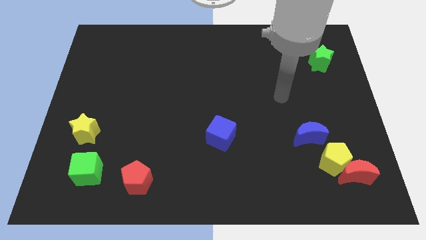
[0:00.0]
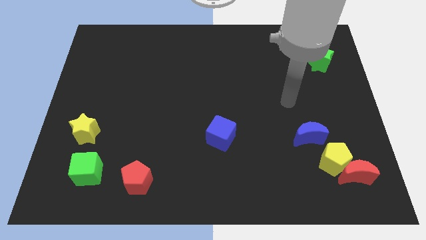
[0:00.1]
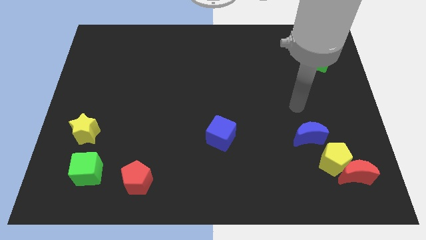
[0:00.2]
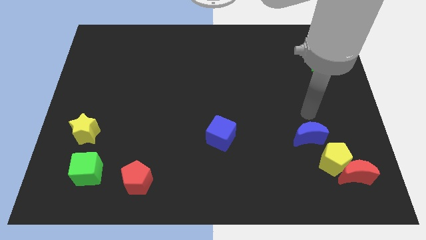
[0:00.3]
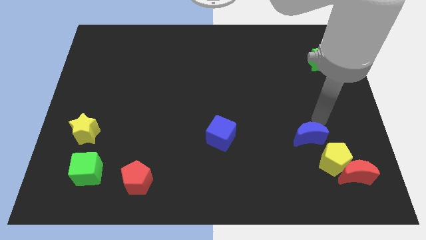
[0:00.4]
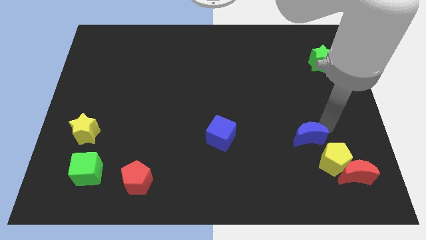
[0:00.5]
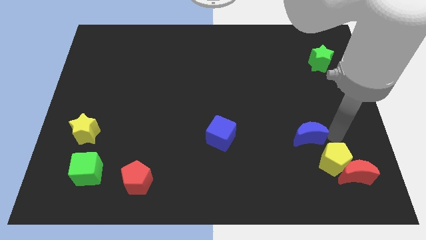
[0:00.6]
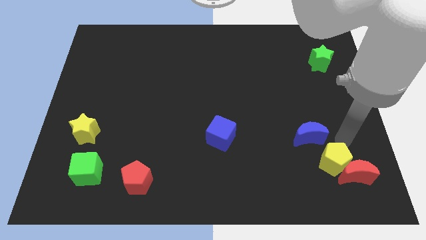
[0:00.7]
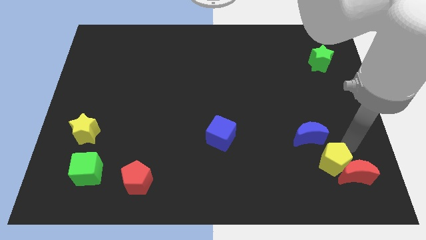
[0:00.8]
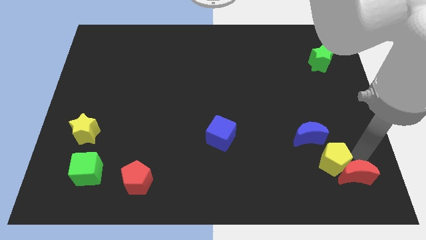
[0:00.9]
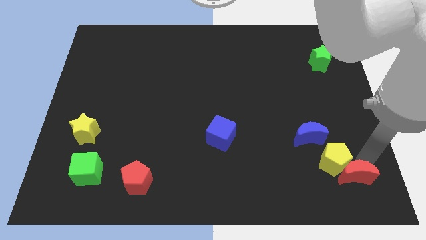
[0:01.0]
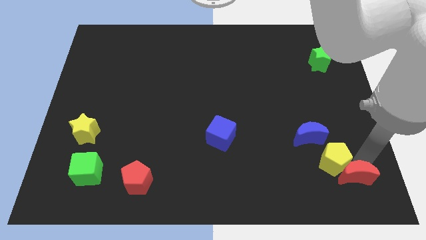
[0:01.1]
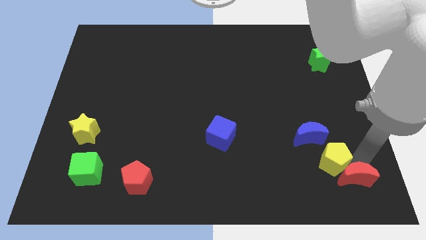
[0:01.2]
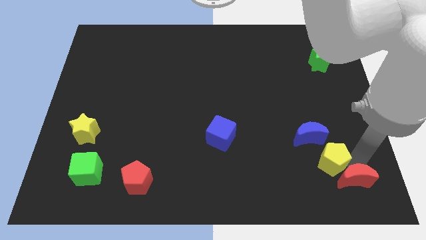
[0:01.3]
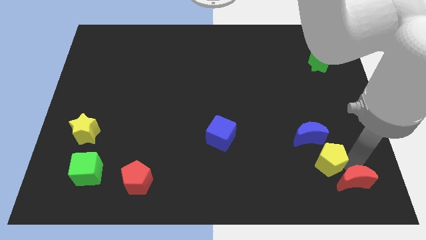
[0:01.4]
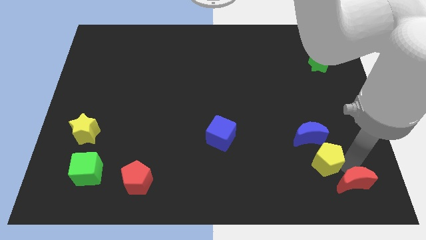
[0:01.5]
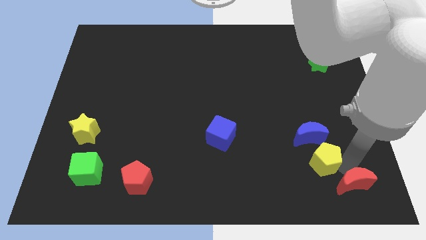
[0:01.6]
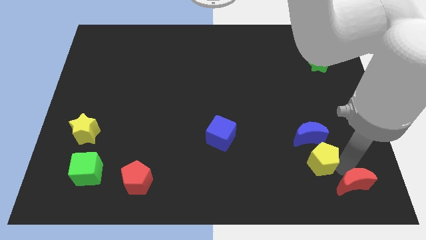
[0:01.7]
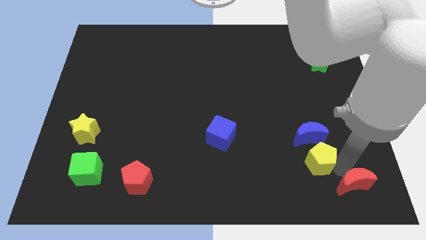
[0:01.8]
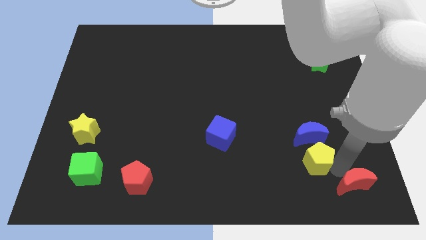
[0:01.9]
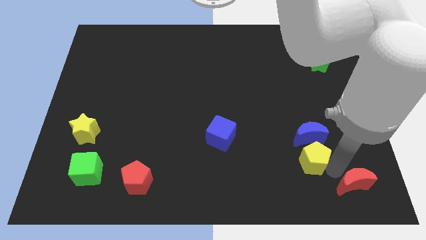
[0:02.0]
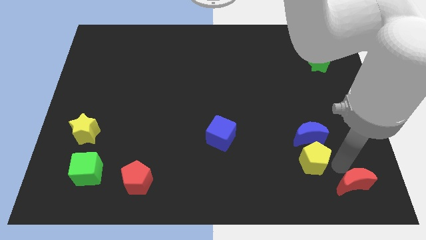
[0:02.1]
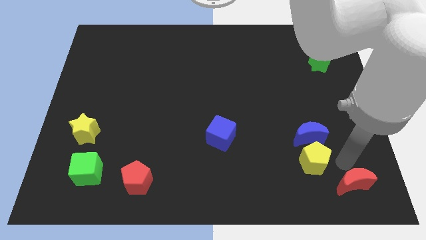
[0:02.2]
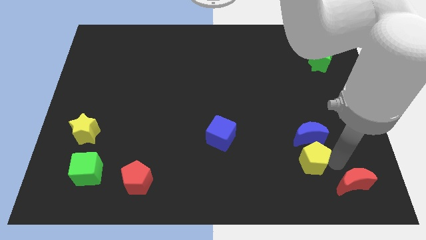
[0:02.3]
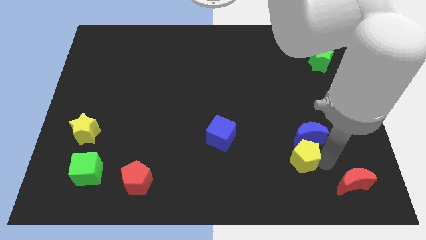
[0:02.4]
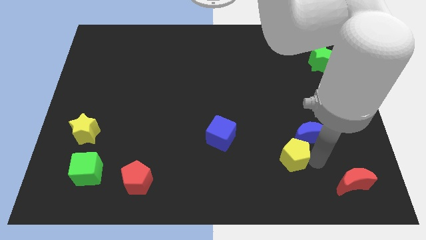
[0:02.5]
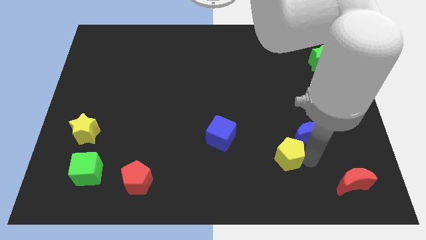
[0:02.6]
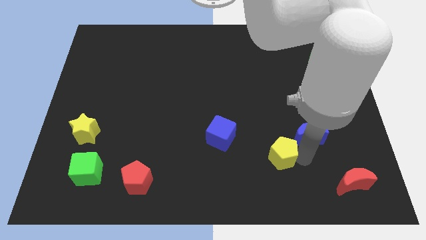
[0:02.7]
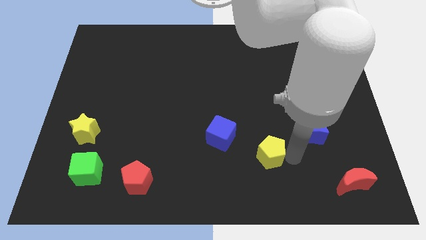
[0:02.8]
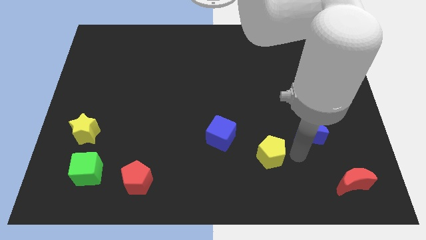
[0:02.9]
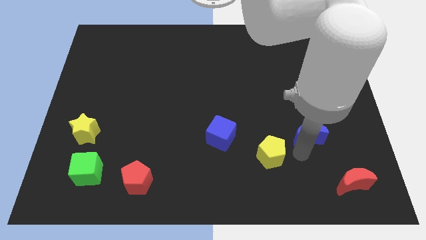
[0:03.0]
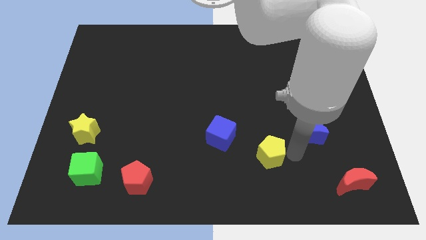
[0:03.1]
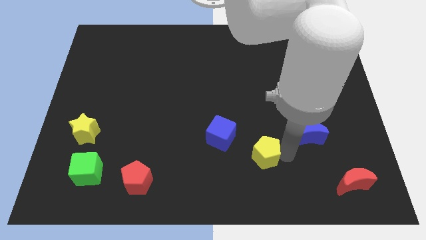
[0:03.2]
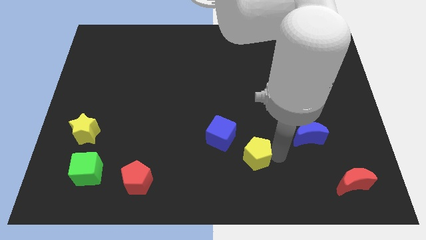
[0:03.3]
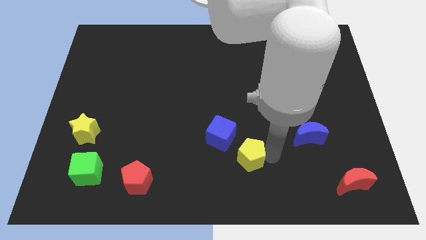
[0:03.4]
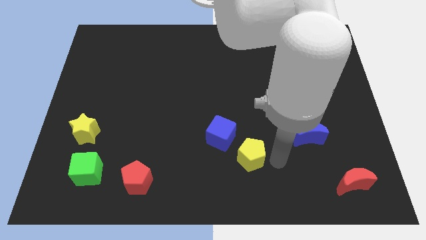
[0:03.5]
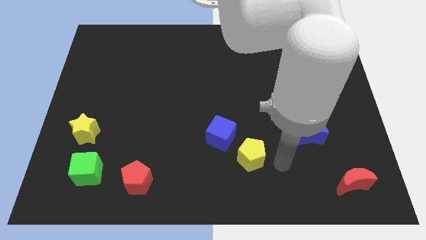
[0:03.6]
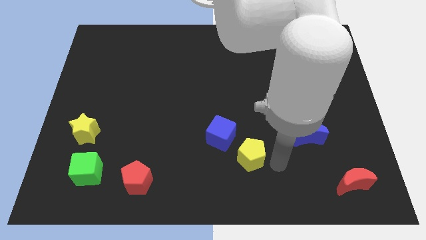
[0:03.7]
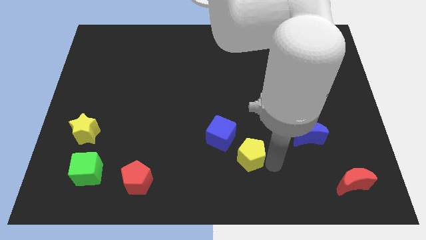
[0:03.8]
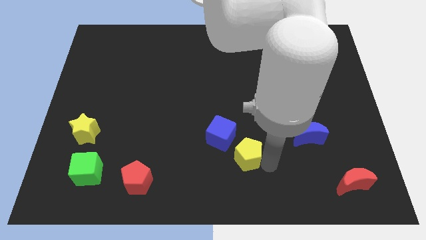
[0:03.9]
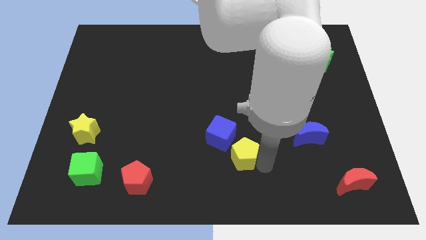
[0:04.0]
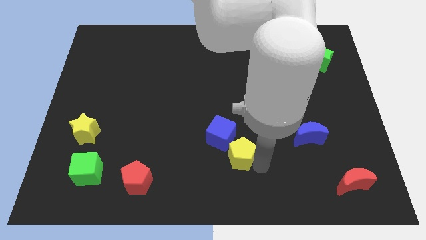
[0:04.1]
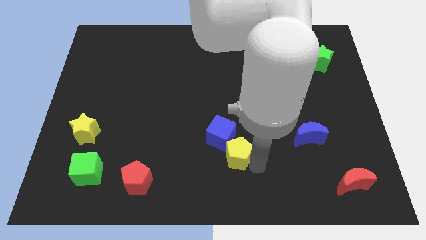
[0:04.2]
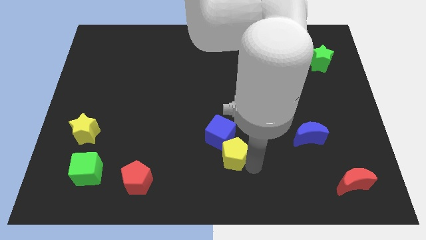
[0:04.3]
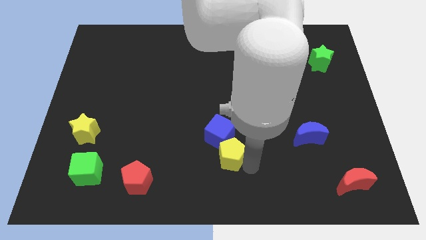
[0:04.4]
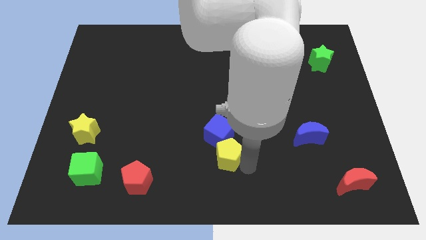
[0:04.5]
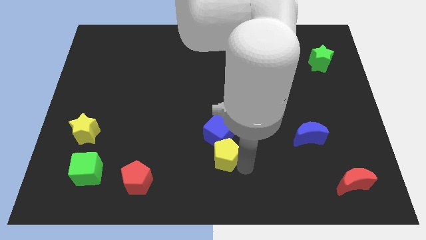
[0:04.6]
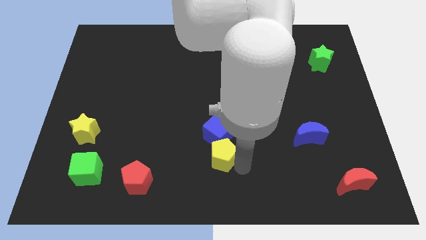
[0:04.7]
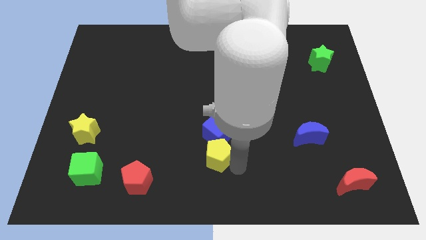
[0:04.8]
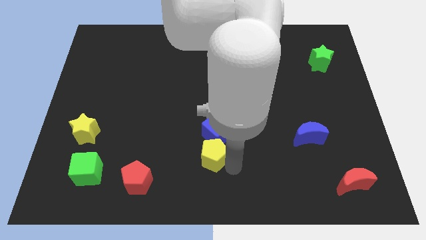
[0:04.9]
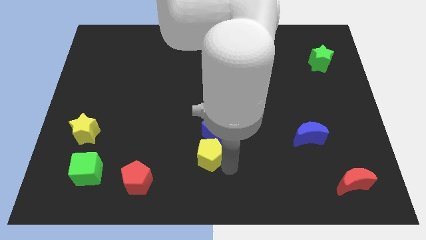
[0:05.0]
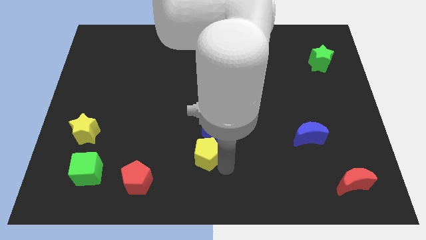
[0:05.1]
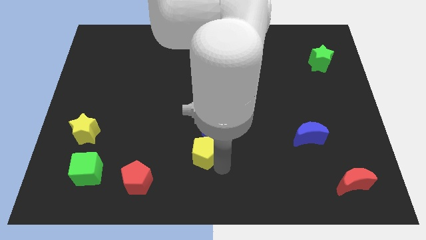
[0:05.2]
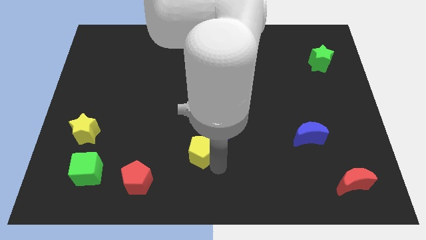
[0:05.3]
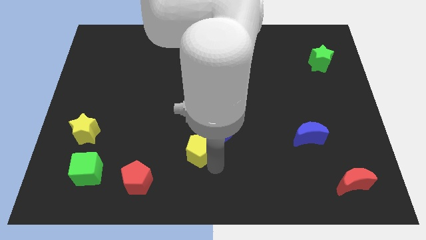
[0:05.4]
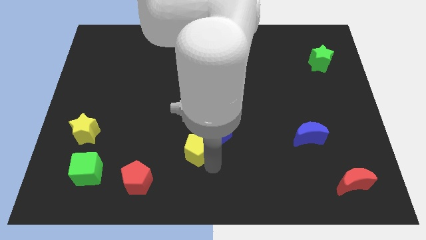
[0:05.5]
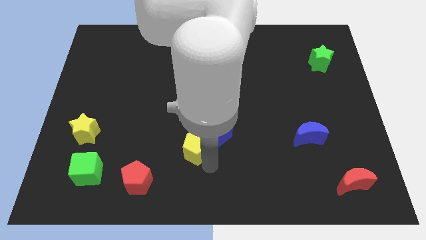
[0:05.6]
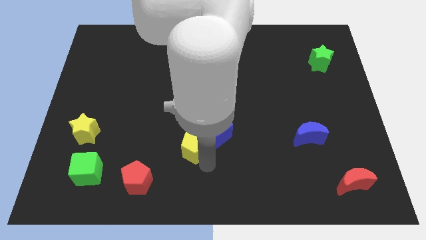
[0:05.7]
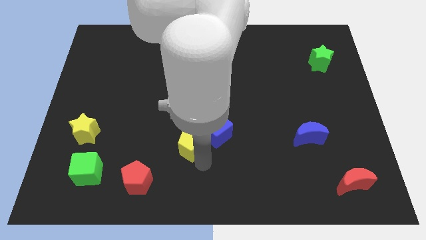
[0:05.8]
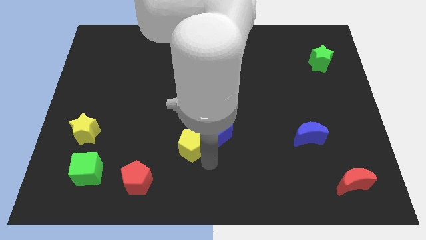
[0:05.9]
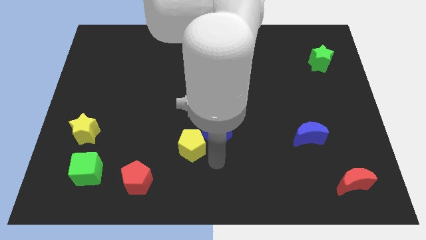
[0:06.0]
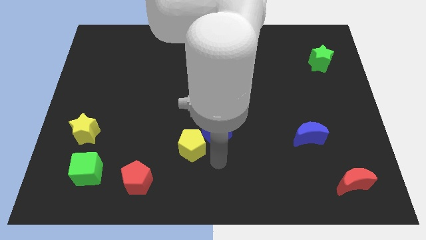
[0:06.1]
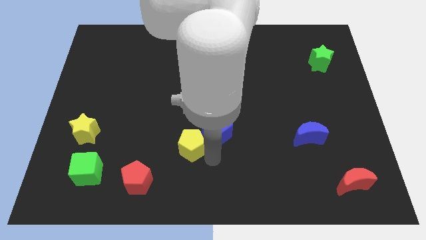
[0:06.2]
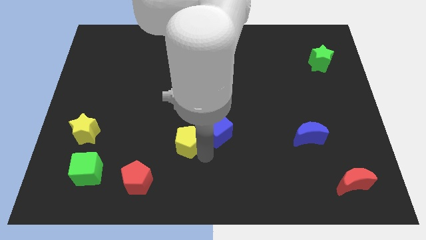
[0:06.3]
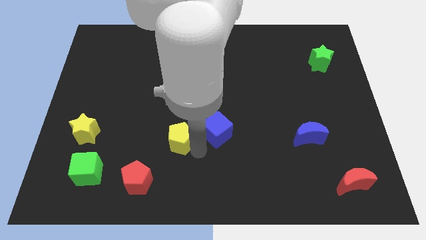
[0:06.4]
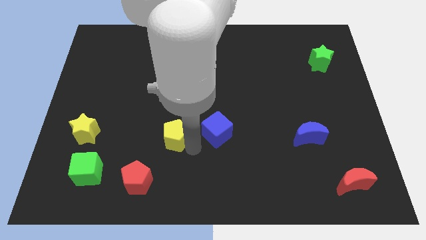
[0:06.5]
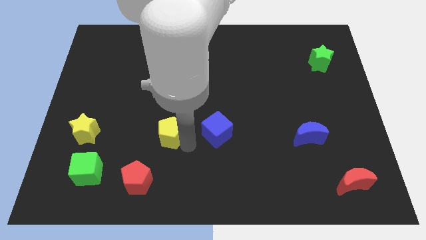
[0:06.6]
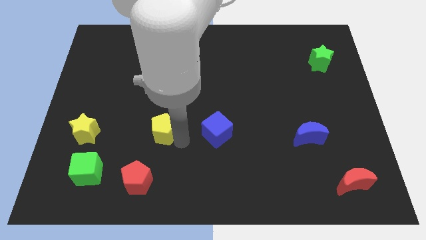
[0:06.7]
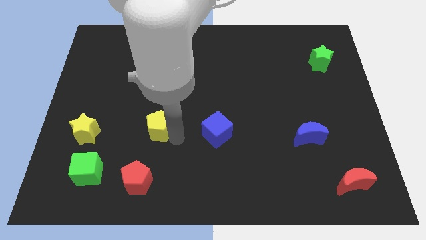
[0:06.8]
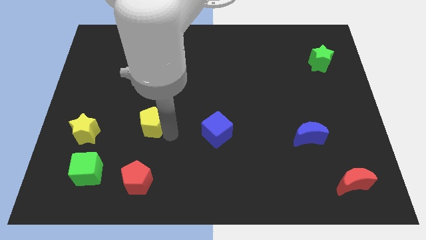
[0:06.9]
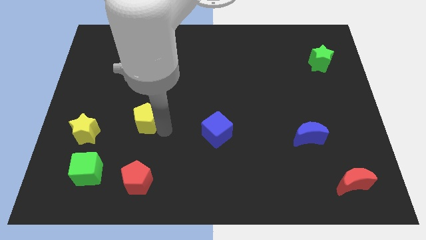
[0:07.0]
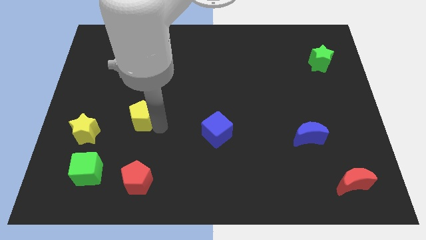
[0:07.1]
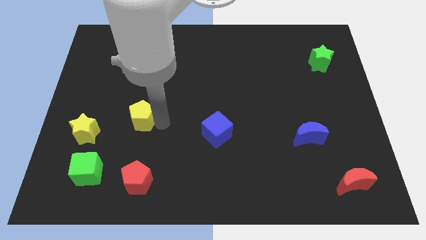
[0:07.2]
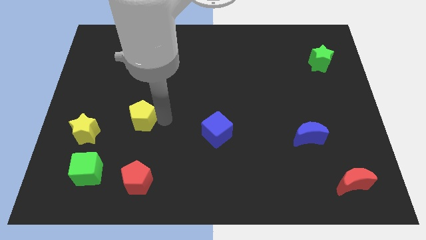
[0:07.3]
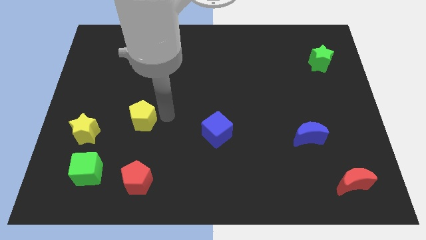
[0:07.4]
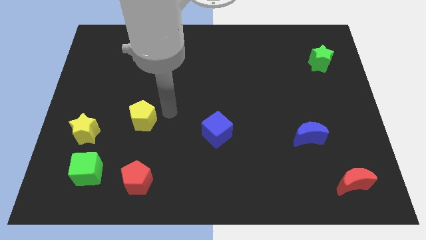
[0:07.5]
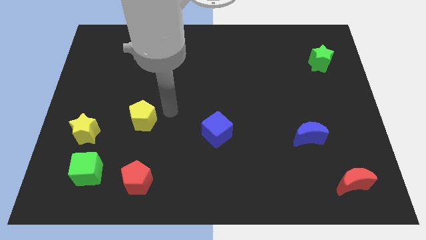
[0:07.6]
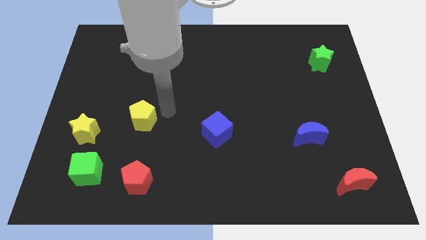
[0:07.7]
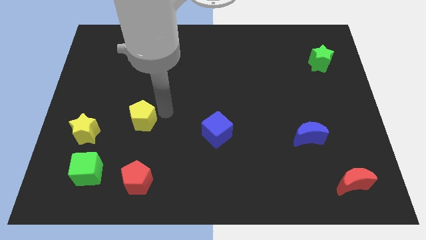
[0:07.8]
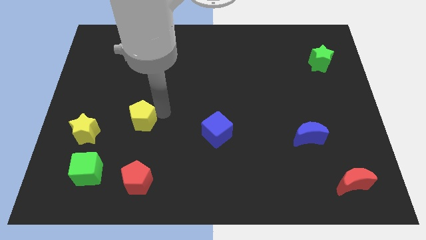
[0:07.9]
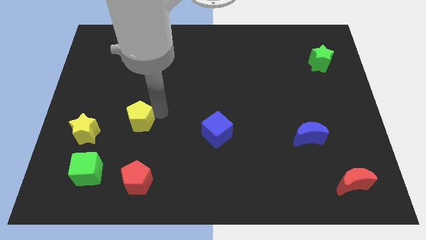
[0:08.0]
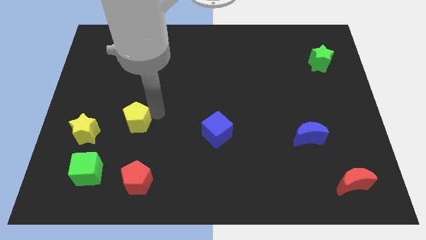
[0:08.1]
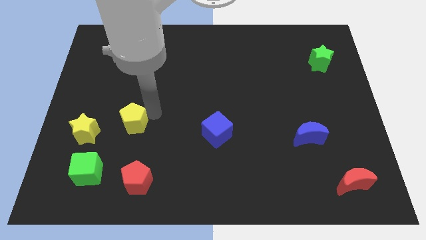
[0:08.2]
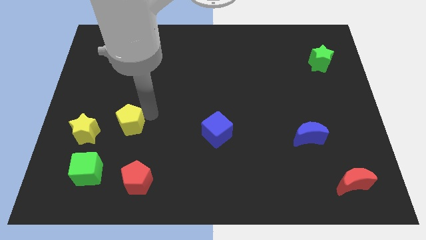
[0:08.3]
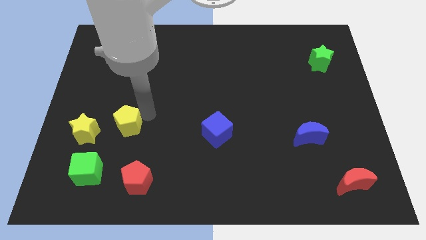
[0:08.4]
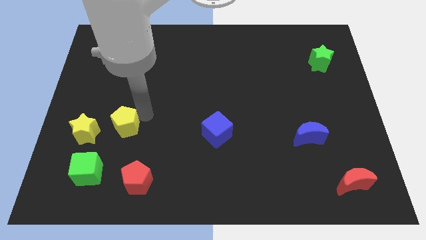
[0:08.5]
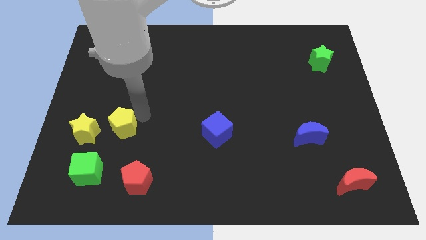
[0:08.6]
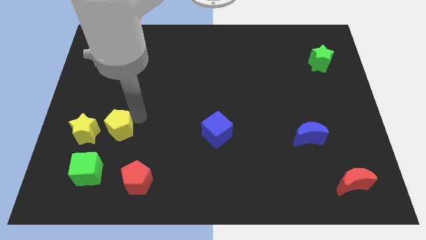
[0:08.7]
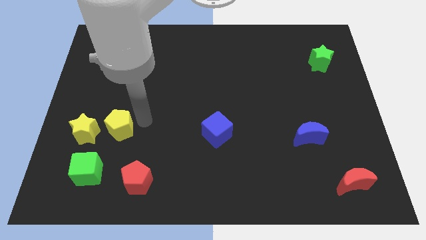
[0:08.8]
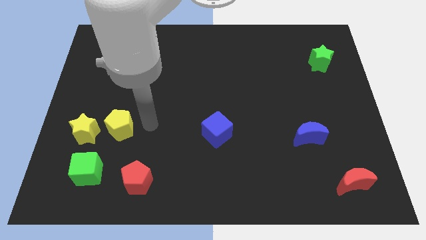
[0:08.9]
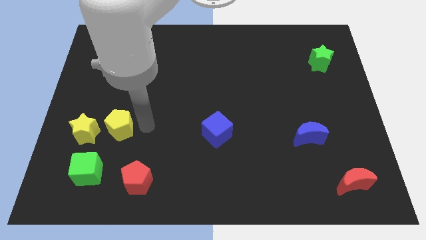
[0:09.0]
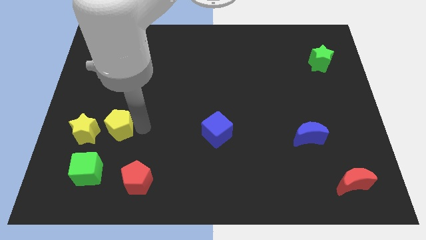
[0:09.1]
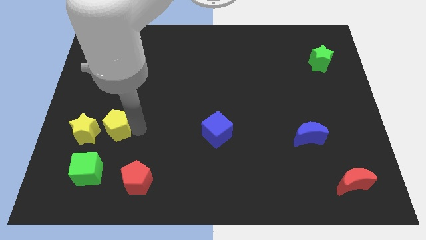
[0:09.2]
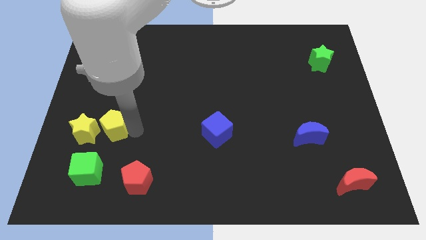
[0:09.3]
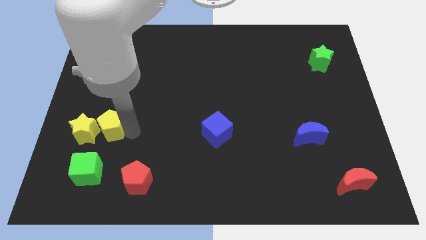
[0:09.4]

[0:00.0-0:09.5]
move the yellow pentagon to the yellow star
